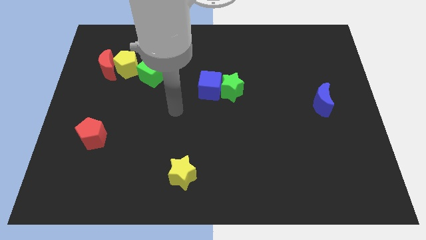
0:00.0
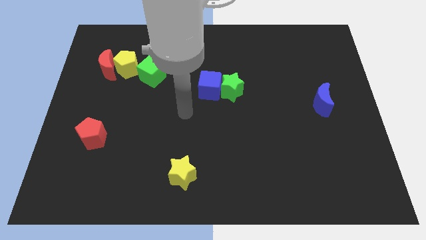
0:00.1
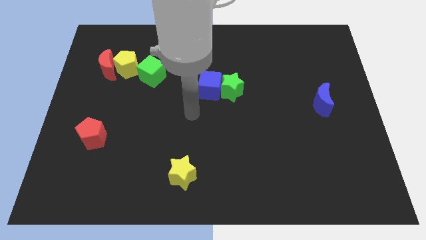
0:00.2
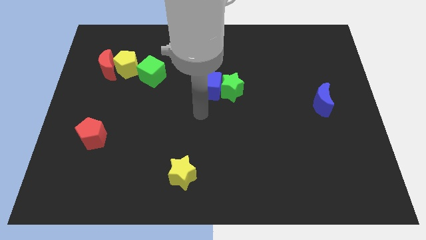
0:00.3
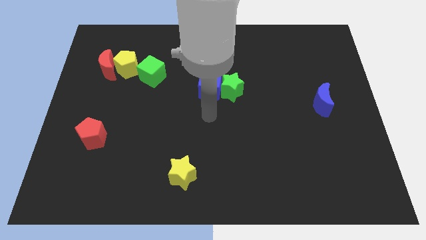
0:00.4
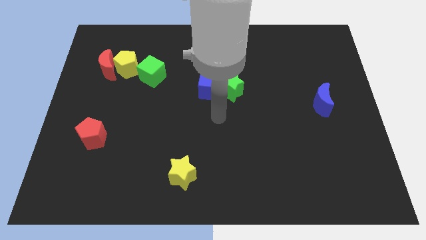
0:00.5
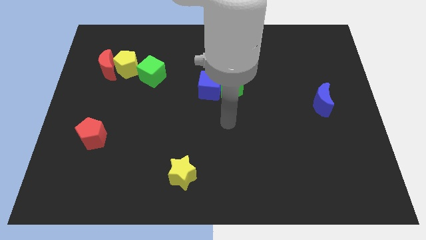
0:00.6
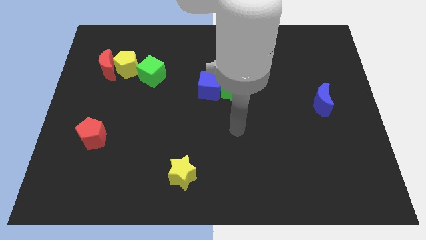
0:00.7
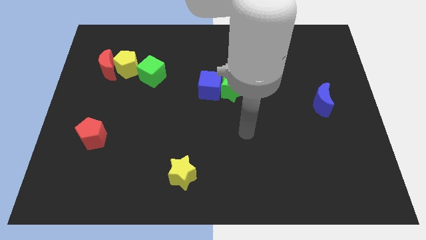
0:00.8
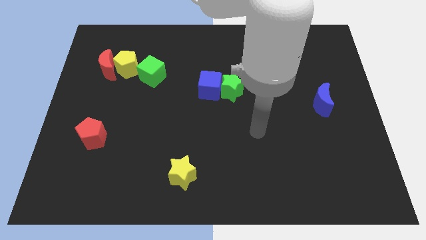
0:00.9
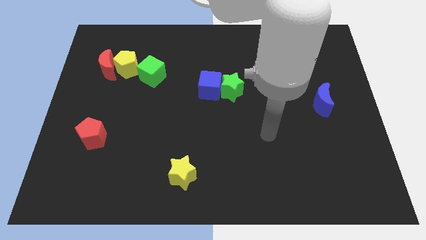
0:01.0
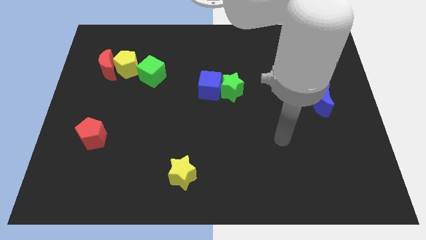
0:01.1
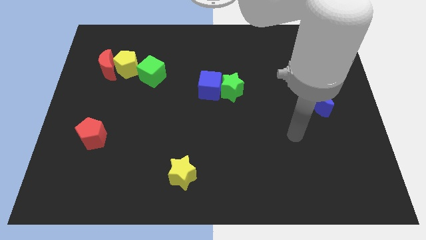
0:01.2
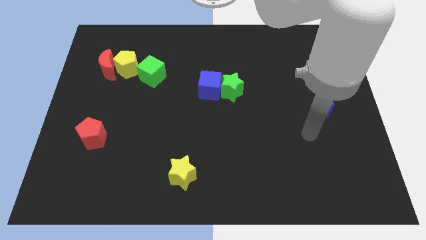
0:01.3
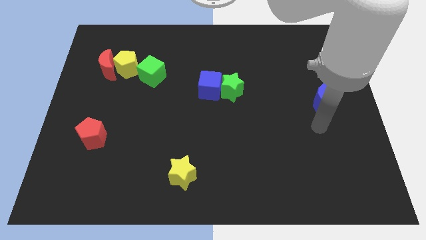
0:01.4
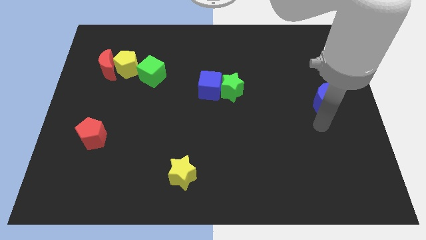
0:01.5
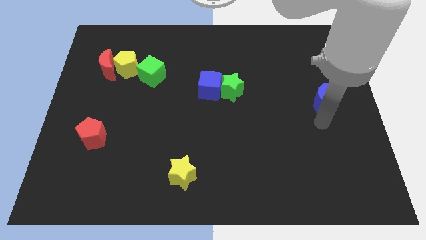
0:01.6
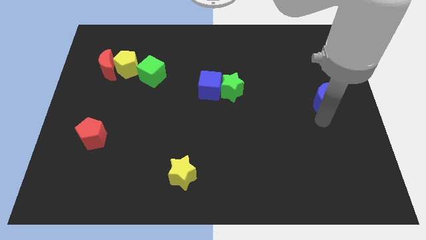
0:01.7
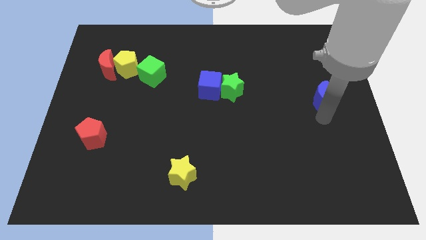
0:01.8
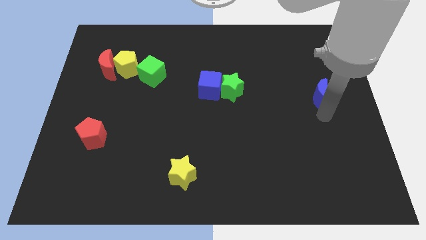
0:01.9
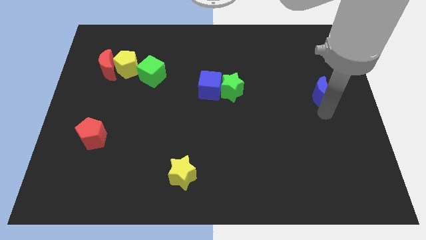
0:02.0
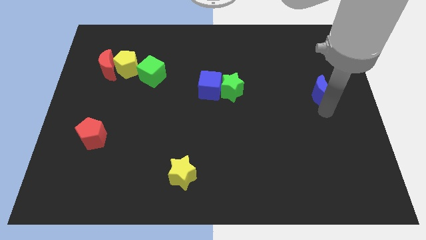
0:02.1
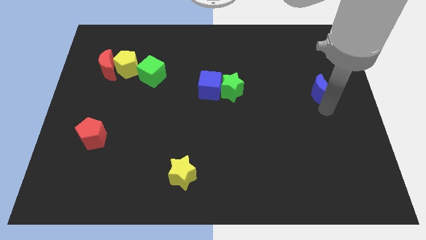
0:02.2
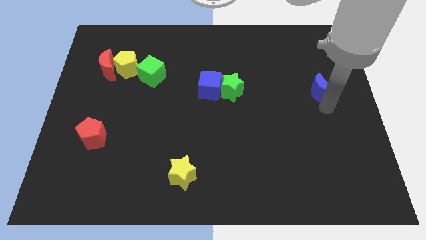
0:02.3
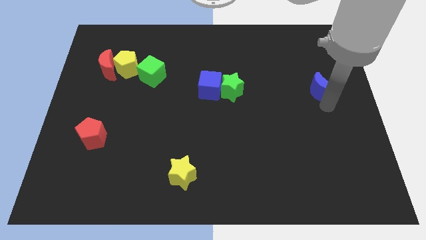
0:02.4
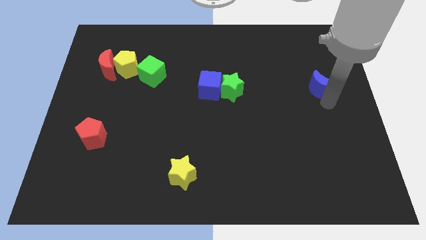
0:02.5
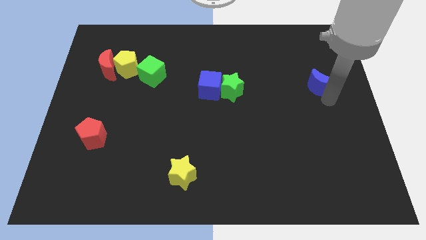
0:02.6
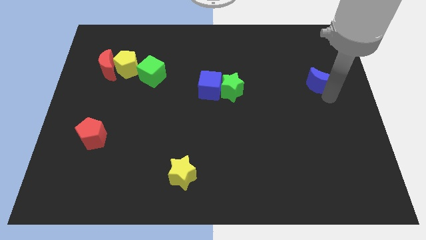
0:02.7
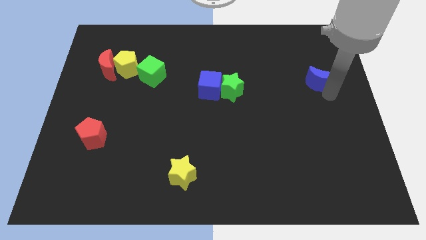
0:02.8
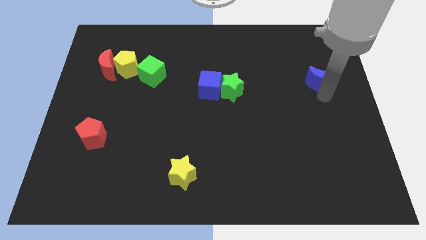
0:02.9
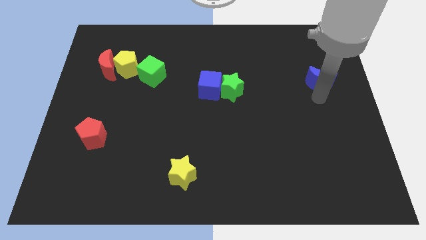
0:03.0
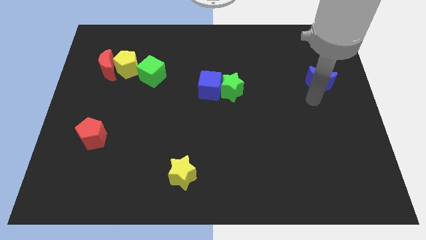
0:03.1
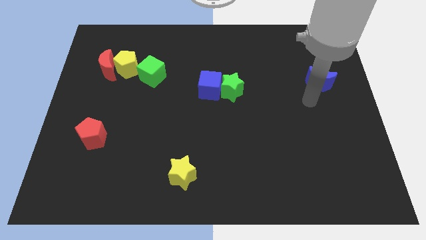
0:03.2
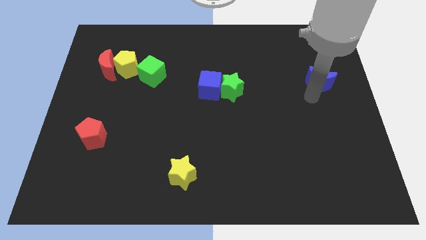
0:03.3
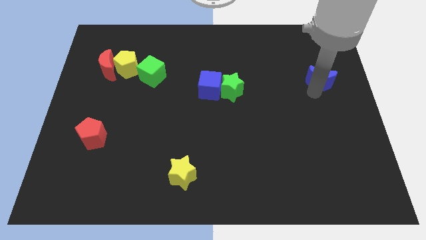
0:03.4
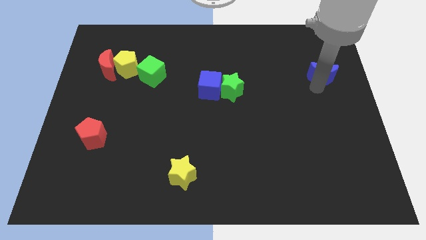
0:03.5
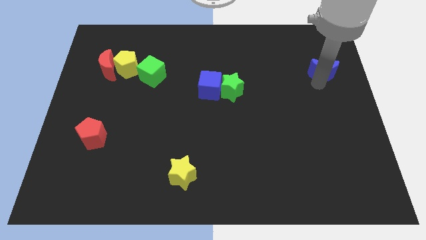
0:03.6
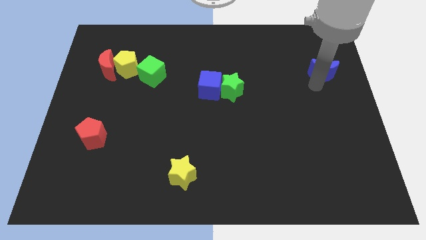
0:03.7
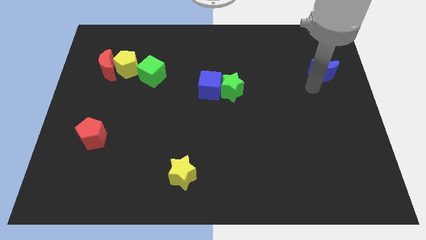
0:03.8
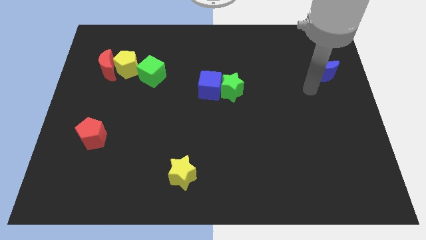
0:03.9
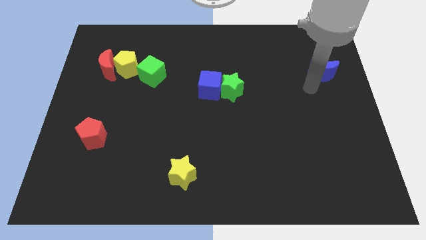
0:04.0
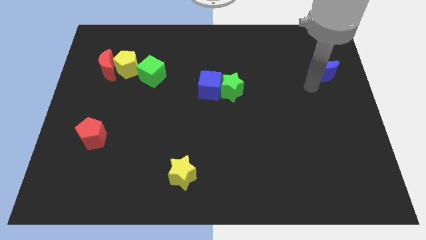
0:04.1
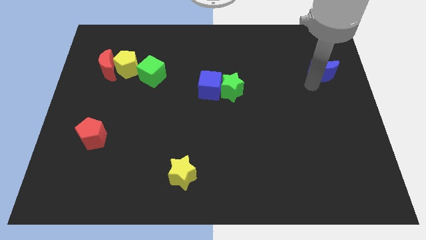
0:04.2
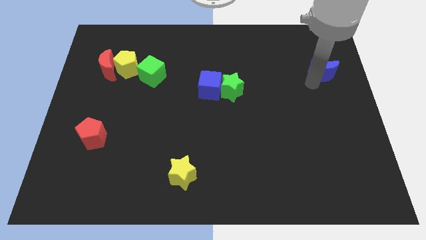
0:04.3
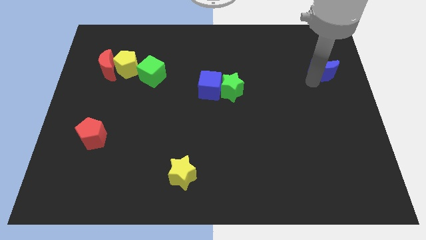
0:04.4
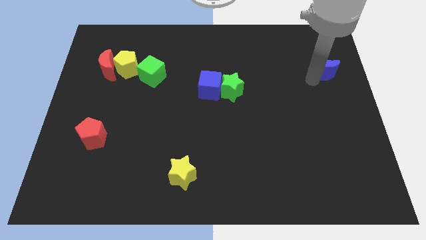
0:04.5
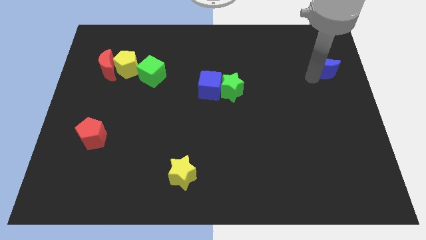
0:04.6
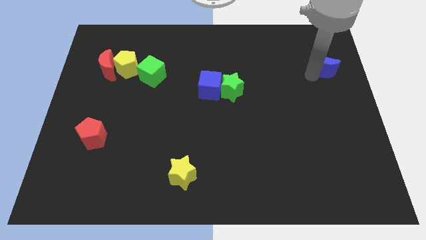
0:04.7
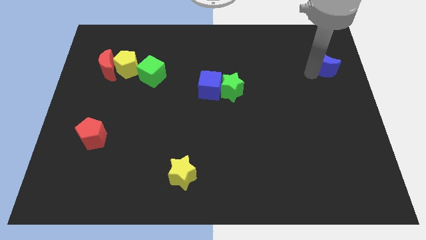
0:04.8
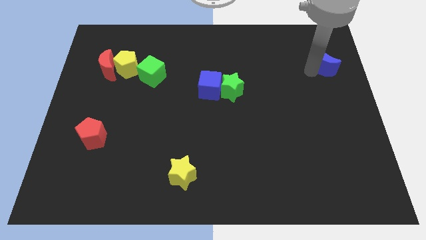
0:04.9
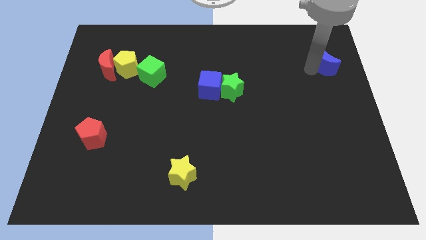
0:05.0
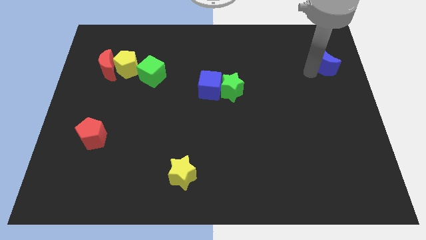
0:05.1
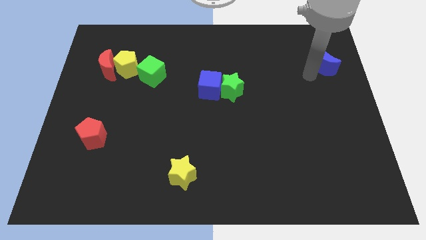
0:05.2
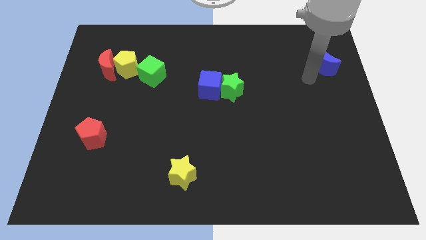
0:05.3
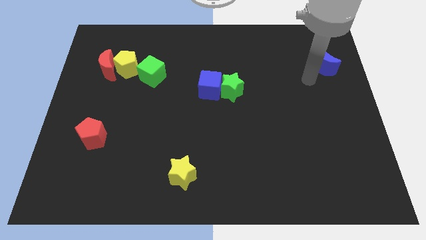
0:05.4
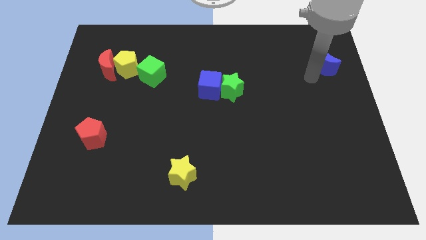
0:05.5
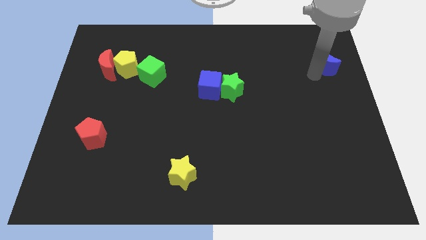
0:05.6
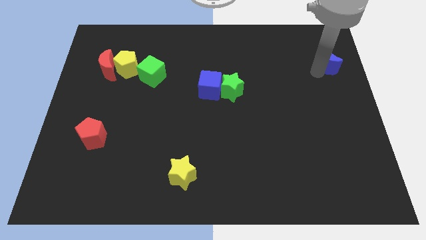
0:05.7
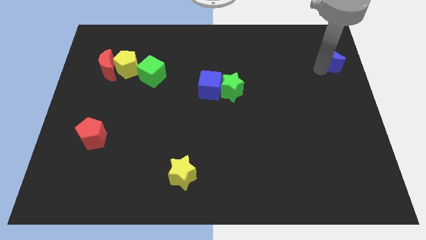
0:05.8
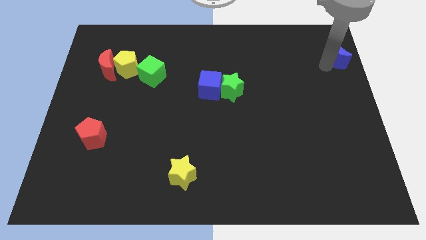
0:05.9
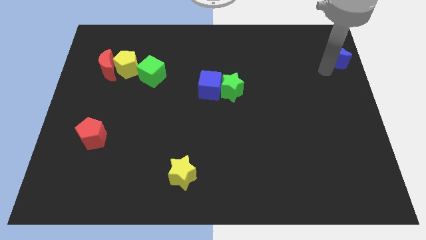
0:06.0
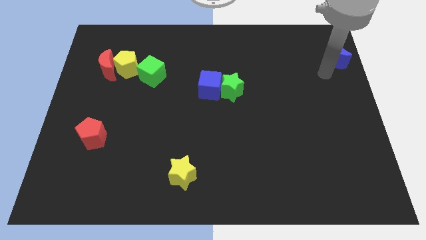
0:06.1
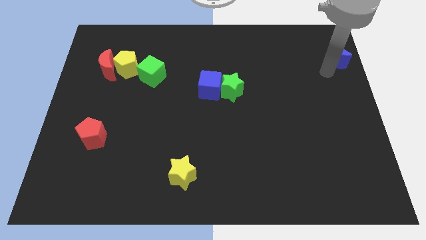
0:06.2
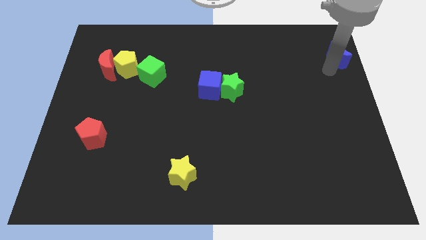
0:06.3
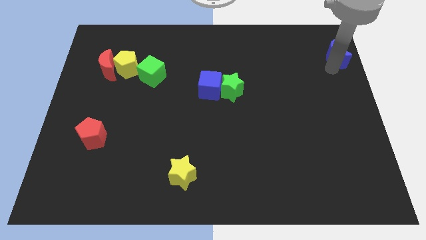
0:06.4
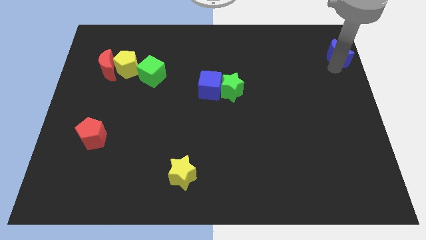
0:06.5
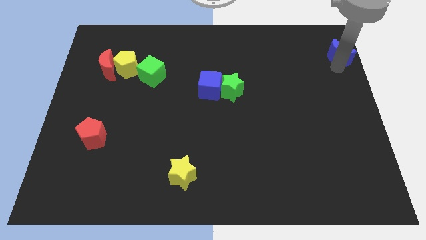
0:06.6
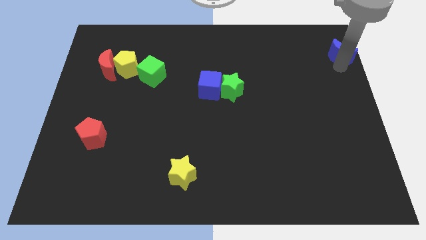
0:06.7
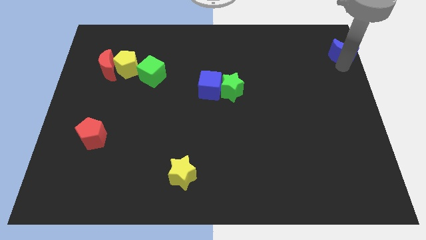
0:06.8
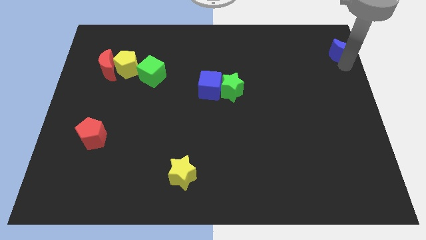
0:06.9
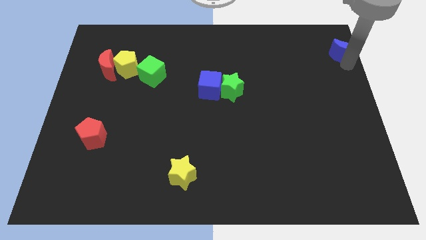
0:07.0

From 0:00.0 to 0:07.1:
slide the blue moon to the top right corner
